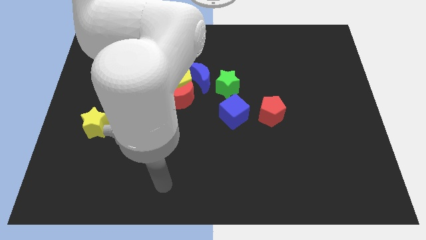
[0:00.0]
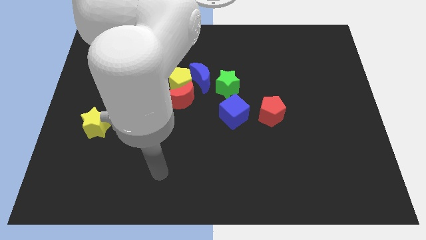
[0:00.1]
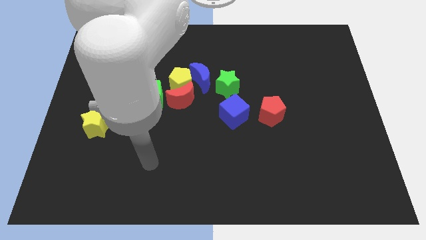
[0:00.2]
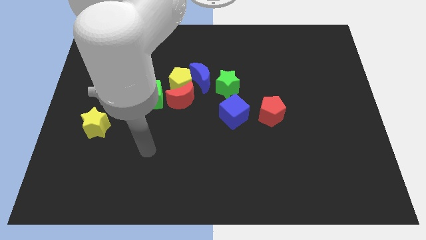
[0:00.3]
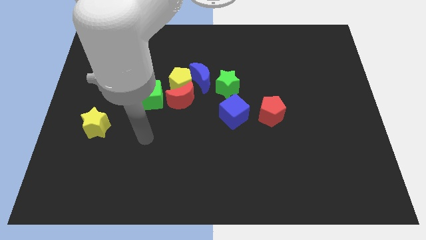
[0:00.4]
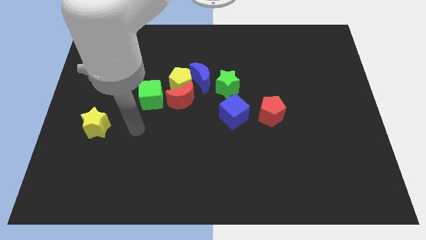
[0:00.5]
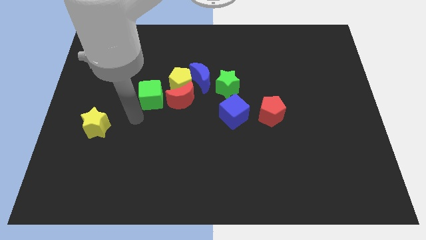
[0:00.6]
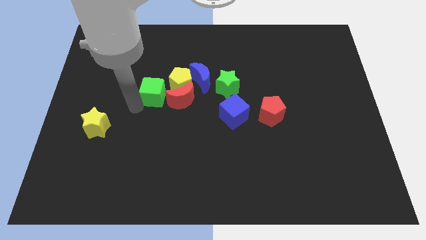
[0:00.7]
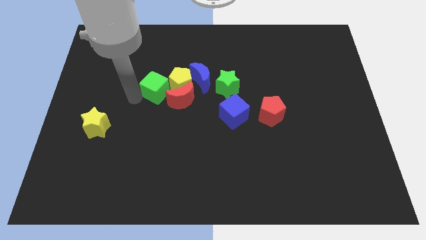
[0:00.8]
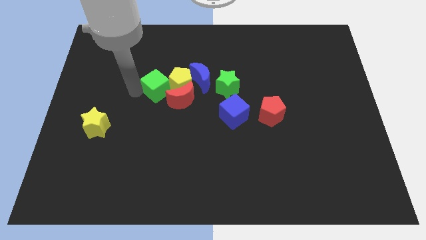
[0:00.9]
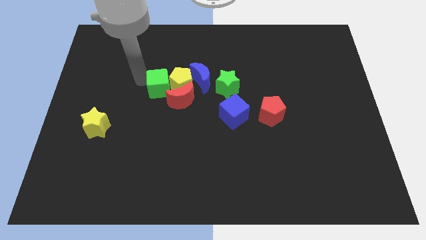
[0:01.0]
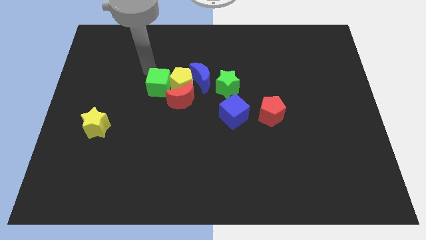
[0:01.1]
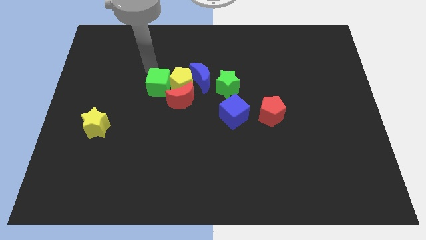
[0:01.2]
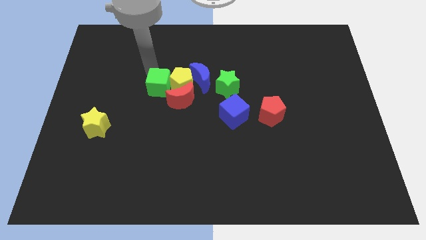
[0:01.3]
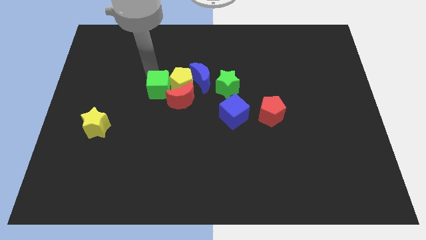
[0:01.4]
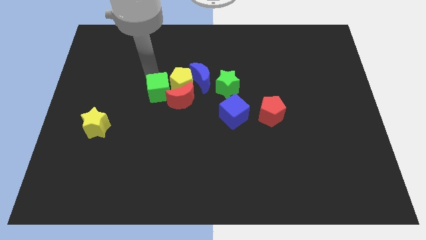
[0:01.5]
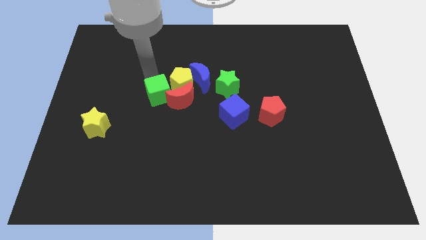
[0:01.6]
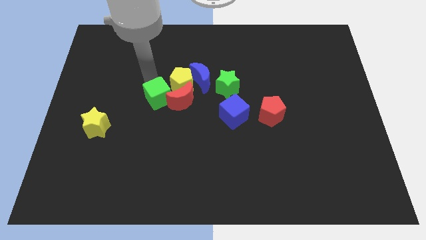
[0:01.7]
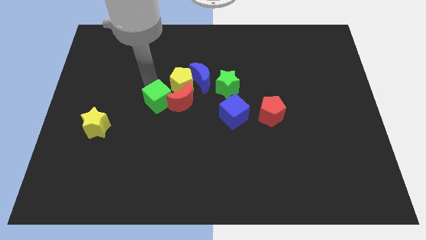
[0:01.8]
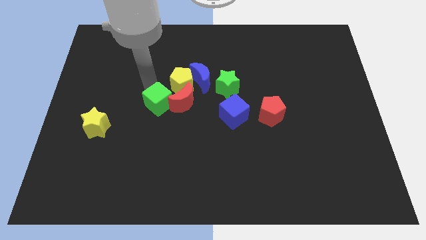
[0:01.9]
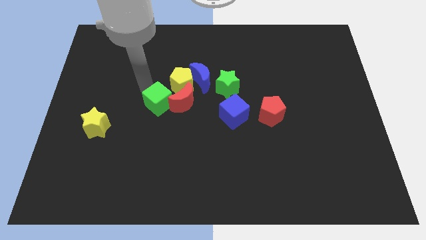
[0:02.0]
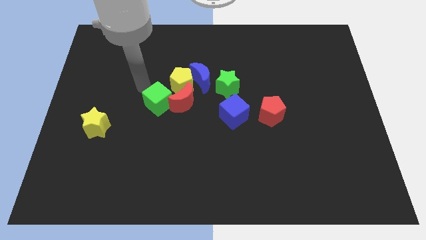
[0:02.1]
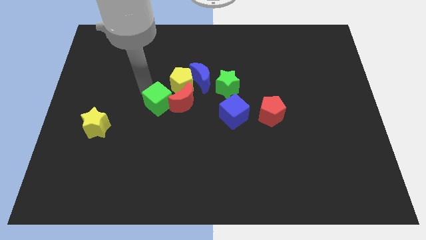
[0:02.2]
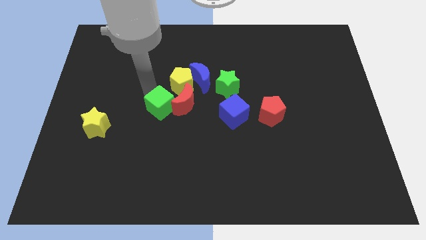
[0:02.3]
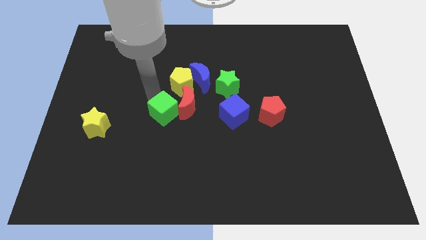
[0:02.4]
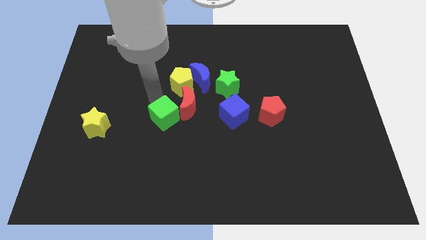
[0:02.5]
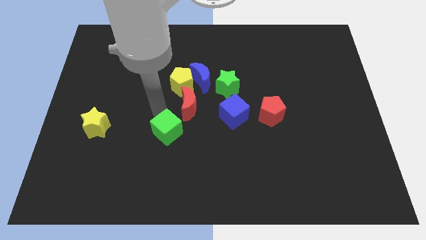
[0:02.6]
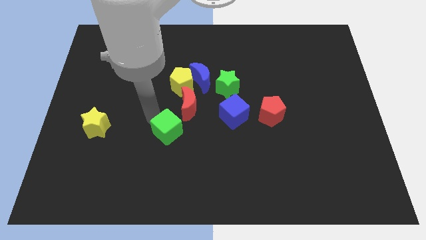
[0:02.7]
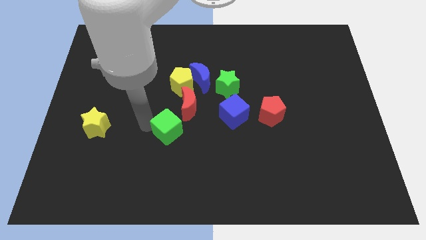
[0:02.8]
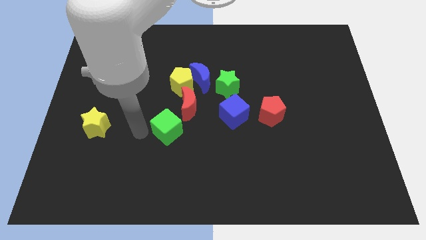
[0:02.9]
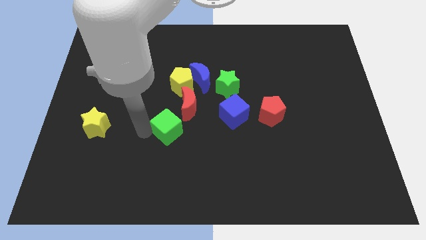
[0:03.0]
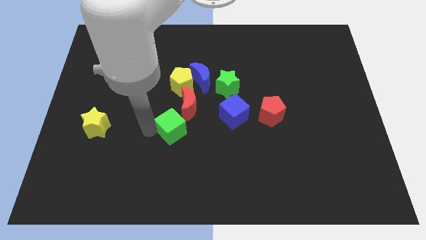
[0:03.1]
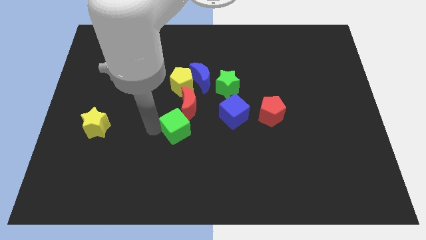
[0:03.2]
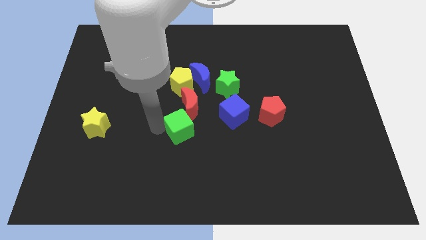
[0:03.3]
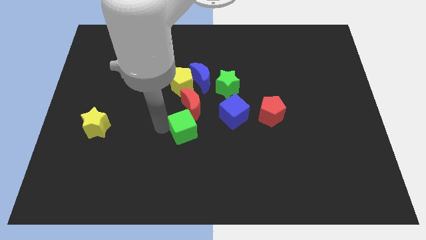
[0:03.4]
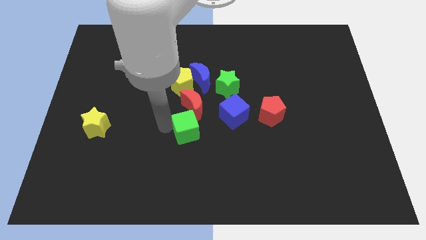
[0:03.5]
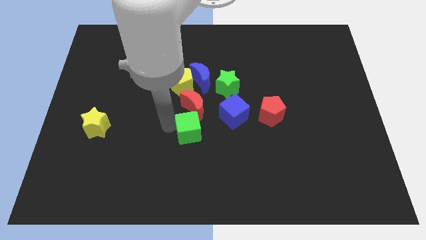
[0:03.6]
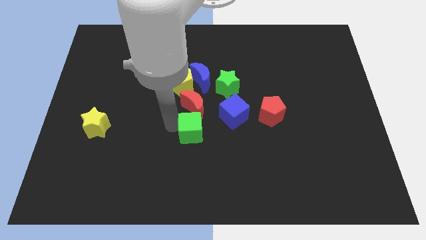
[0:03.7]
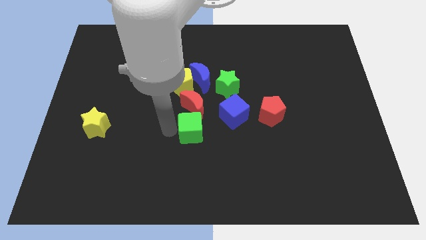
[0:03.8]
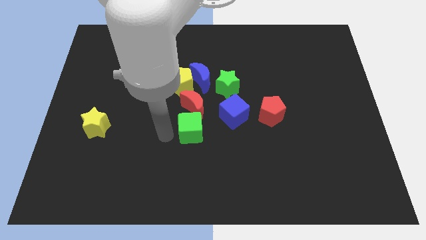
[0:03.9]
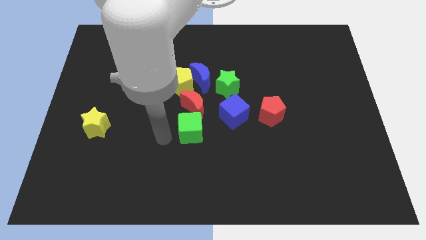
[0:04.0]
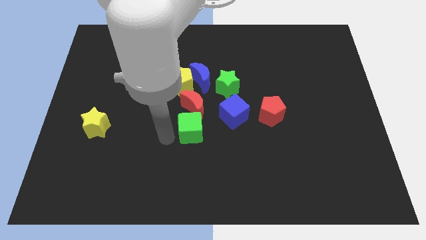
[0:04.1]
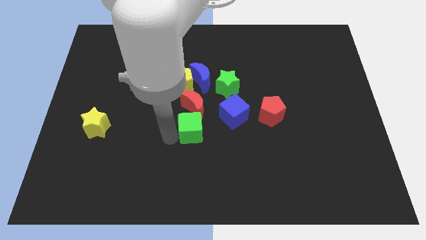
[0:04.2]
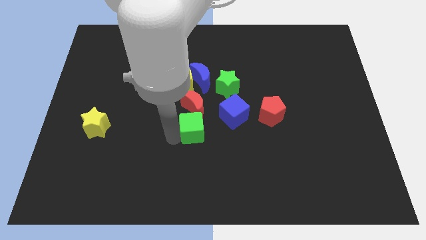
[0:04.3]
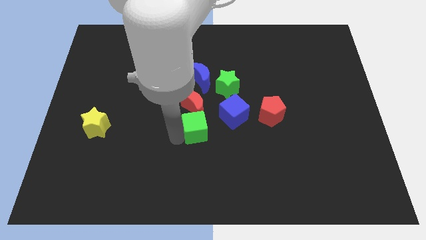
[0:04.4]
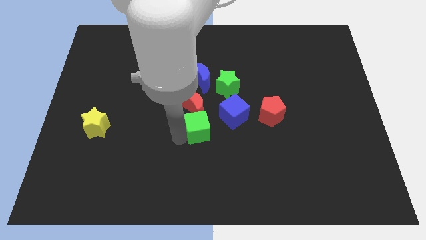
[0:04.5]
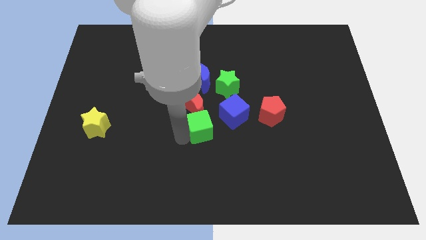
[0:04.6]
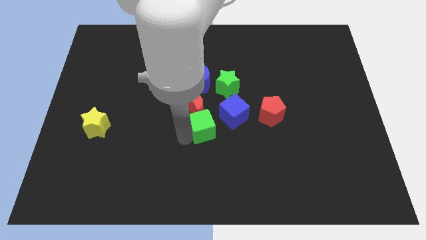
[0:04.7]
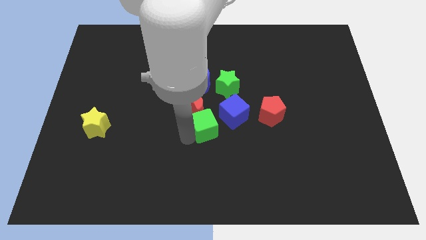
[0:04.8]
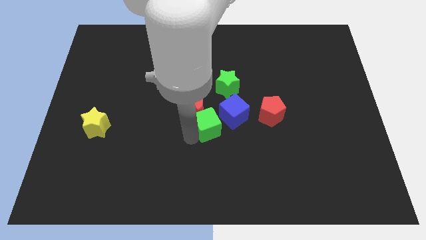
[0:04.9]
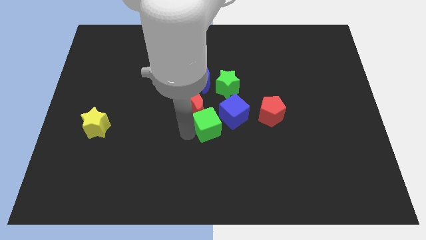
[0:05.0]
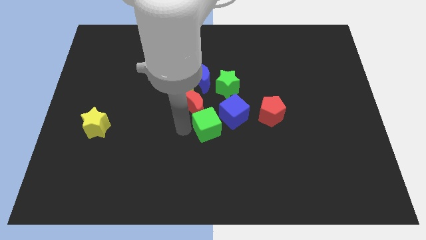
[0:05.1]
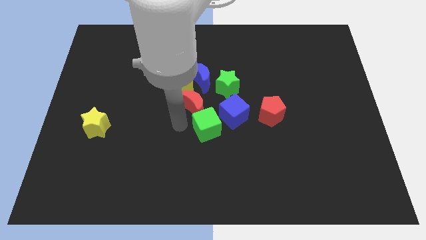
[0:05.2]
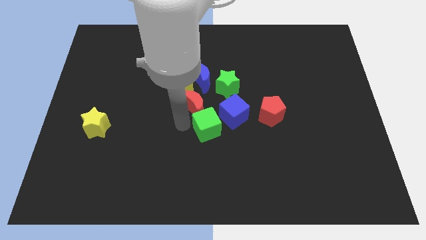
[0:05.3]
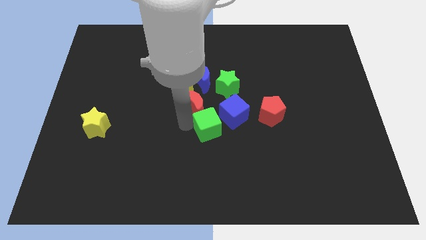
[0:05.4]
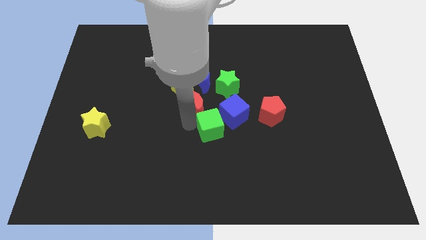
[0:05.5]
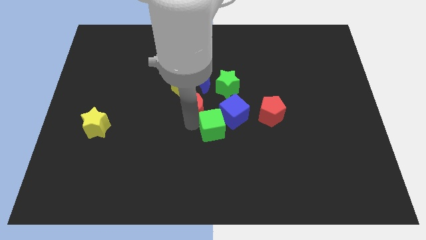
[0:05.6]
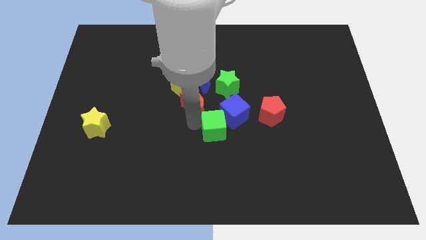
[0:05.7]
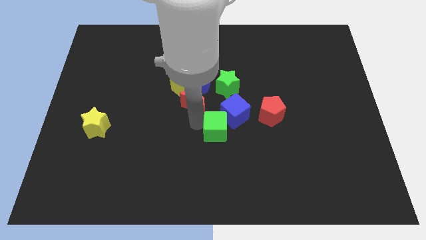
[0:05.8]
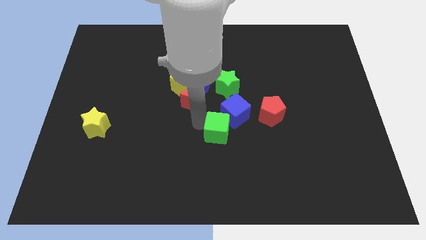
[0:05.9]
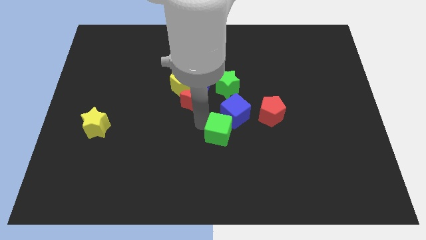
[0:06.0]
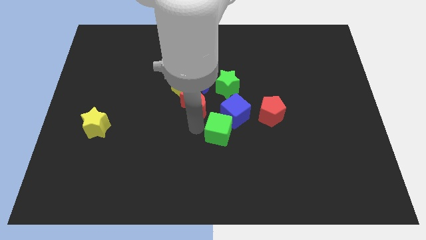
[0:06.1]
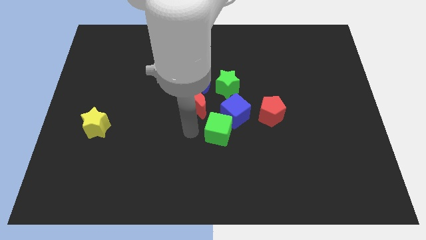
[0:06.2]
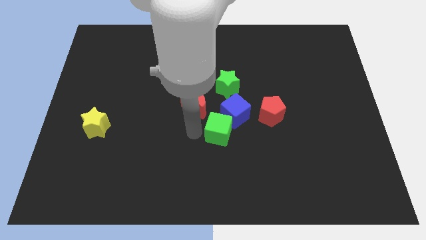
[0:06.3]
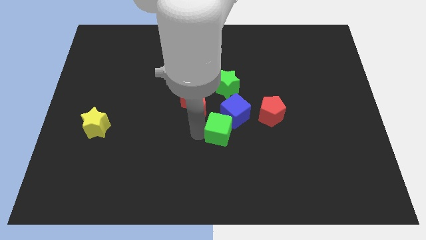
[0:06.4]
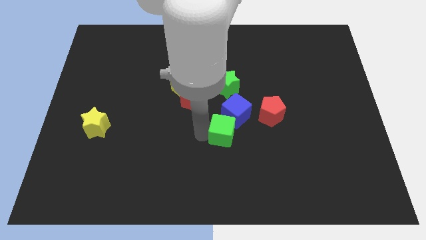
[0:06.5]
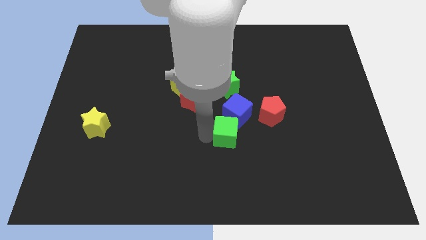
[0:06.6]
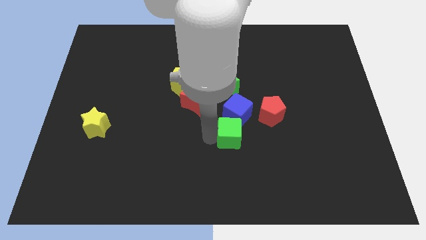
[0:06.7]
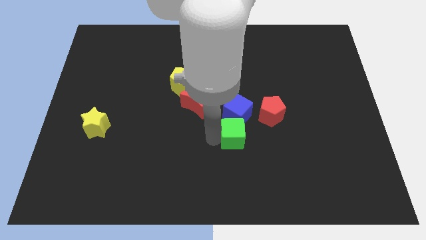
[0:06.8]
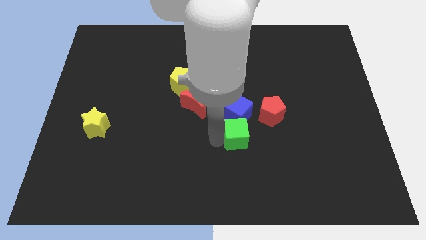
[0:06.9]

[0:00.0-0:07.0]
put the green cube to the bottom right of the blue cube

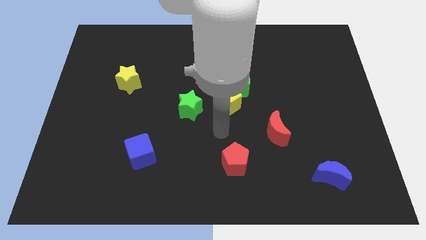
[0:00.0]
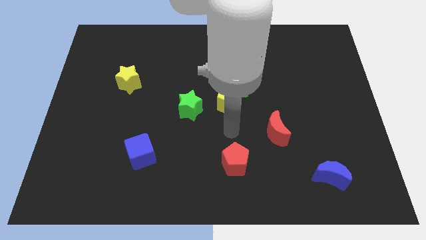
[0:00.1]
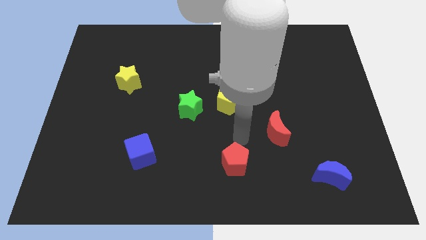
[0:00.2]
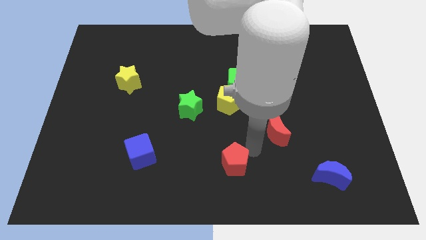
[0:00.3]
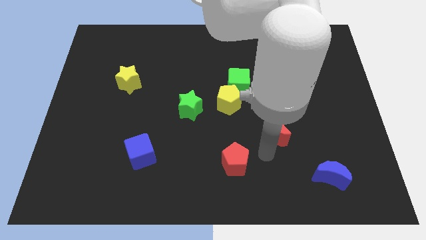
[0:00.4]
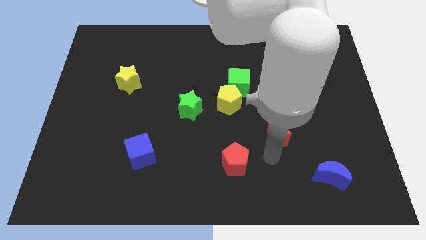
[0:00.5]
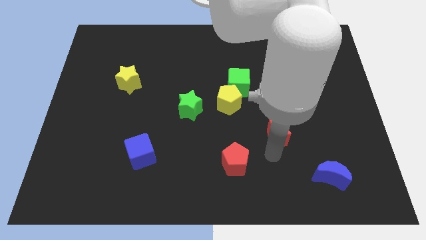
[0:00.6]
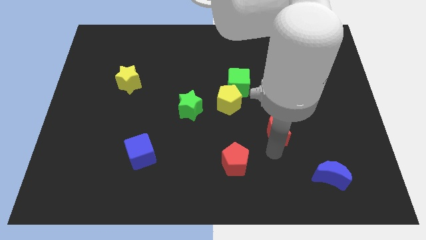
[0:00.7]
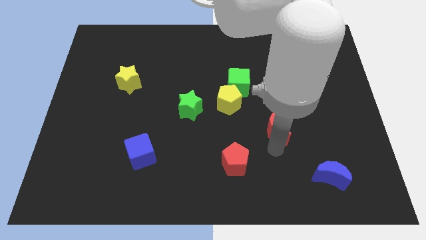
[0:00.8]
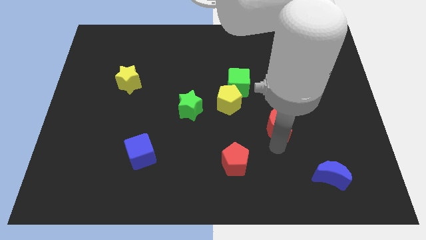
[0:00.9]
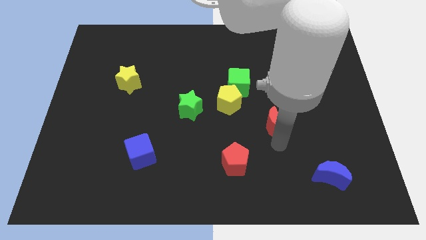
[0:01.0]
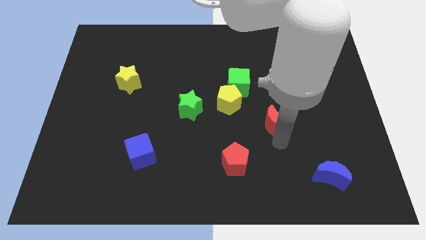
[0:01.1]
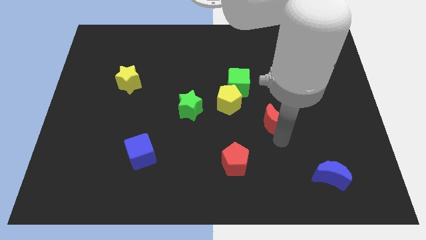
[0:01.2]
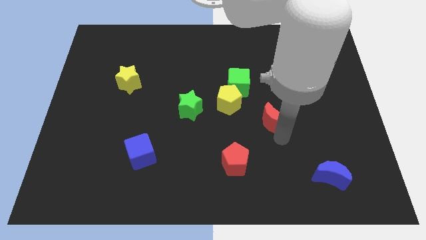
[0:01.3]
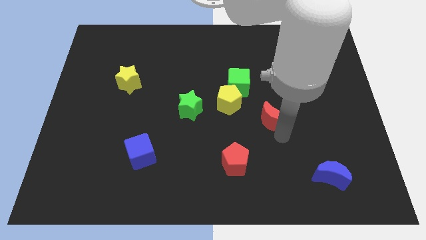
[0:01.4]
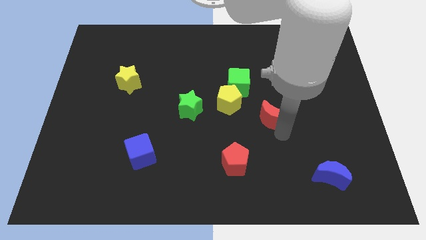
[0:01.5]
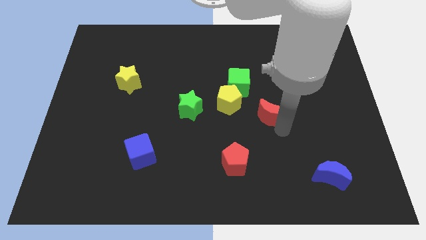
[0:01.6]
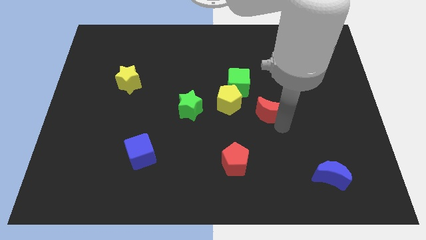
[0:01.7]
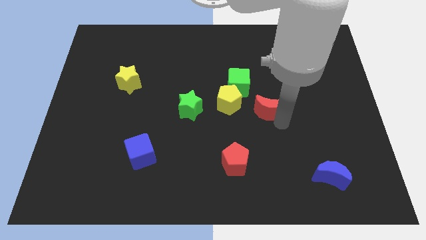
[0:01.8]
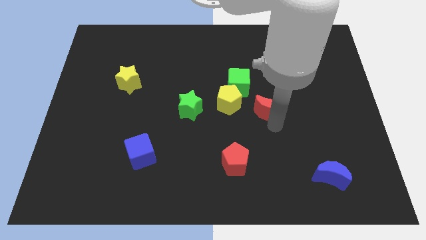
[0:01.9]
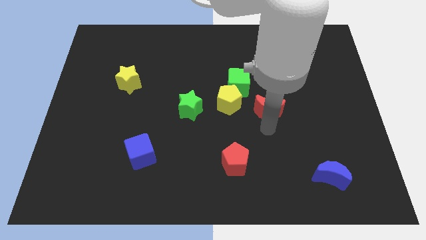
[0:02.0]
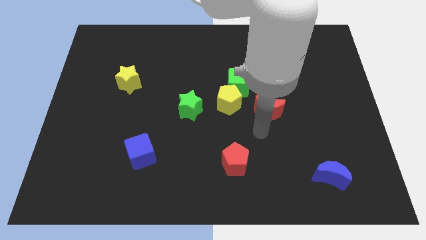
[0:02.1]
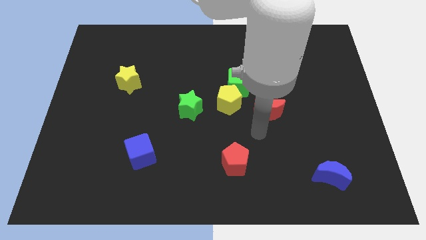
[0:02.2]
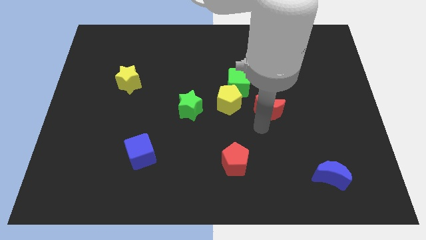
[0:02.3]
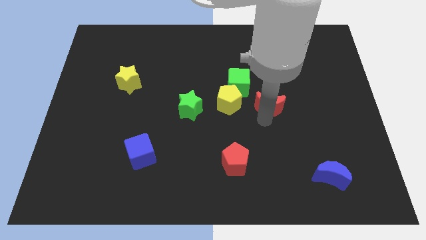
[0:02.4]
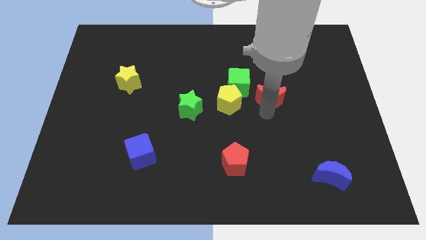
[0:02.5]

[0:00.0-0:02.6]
slide the red moon right of the green cube
